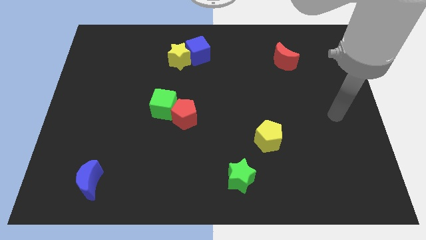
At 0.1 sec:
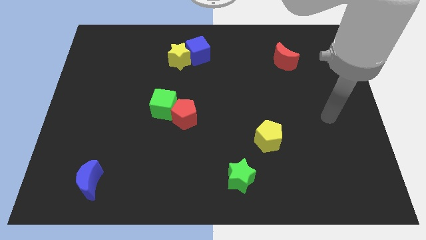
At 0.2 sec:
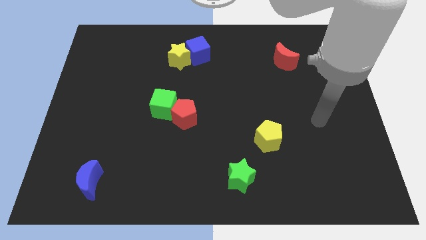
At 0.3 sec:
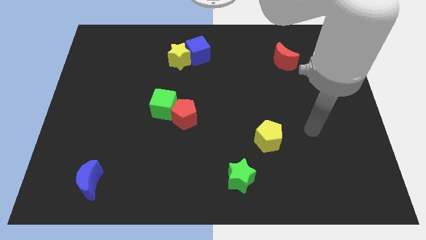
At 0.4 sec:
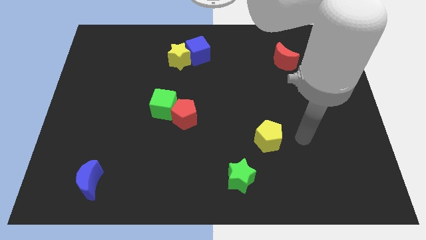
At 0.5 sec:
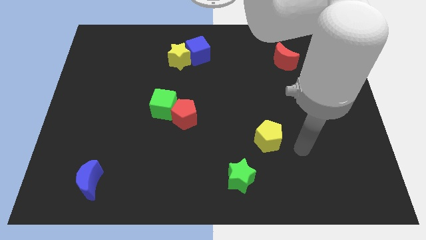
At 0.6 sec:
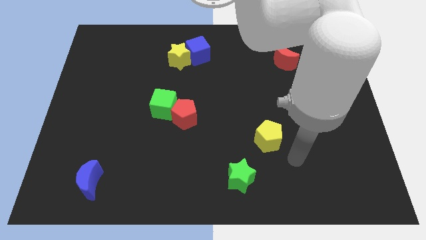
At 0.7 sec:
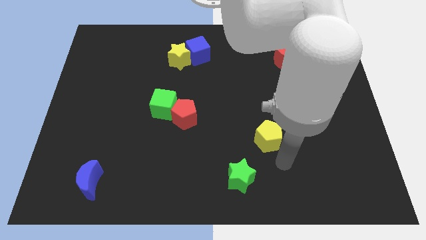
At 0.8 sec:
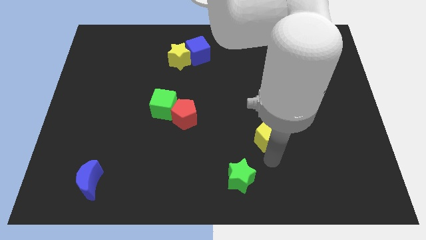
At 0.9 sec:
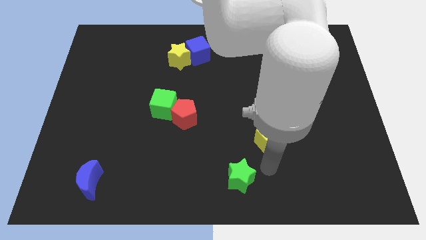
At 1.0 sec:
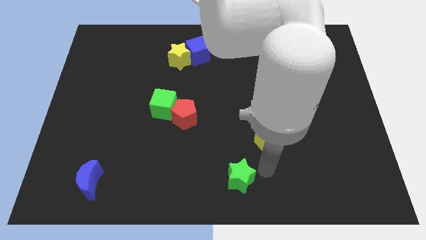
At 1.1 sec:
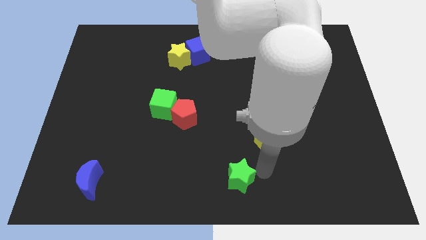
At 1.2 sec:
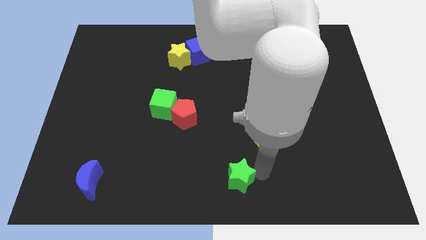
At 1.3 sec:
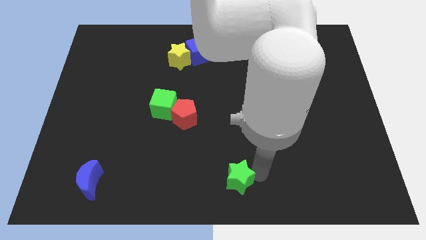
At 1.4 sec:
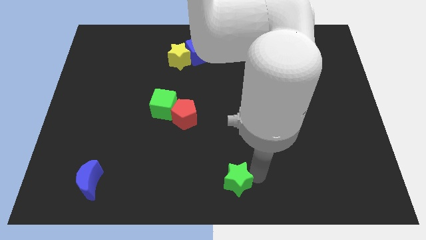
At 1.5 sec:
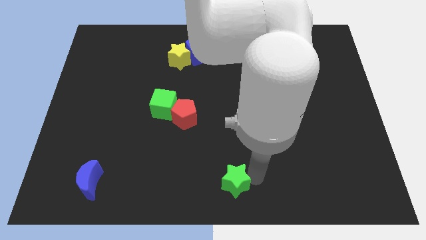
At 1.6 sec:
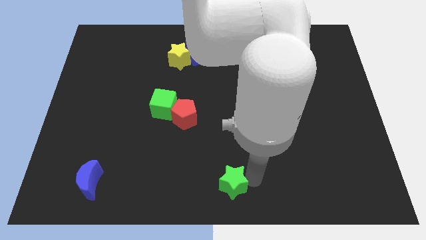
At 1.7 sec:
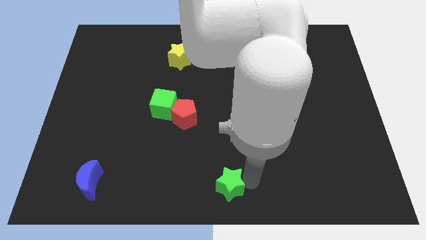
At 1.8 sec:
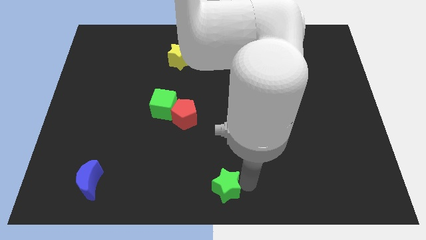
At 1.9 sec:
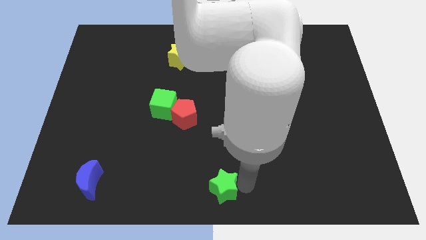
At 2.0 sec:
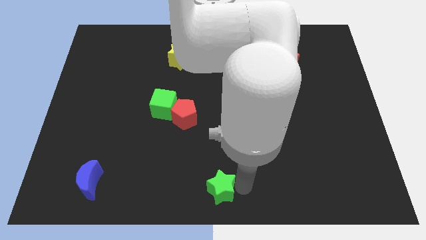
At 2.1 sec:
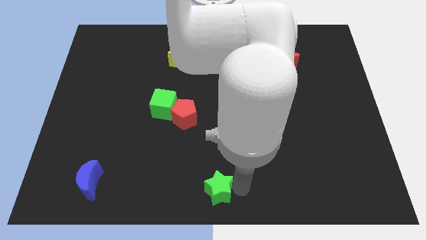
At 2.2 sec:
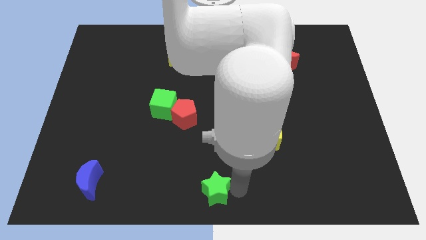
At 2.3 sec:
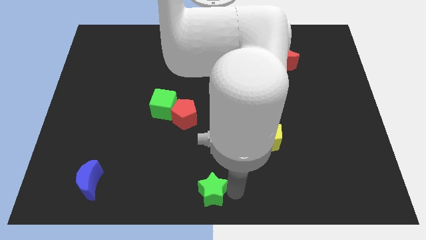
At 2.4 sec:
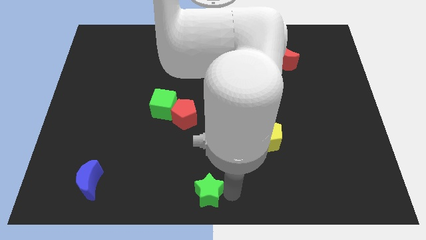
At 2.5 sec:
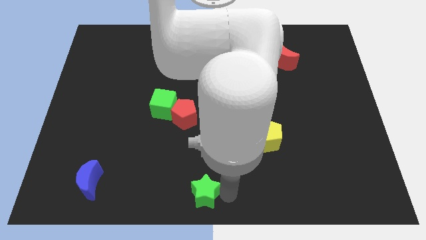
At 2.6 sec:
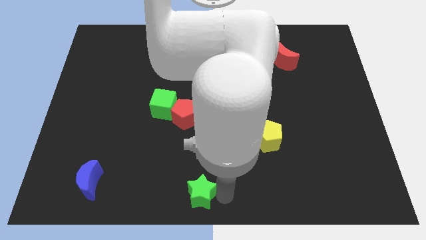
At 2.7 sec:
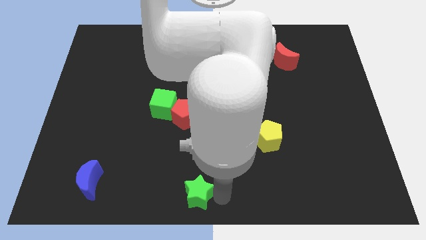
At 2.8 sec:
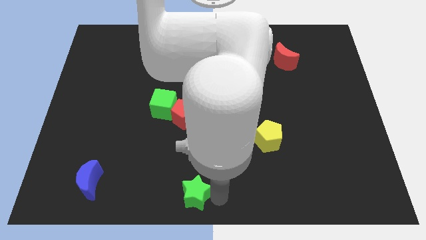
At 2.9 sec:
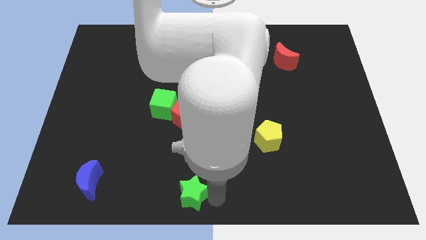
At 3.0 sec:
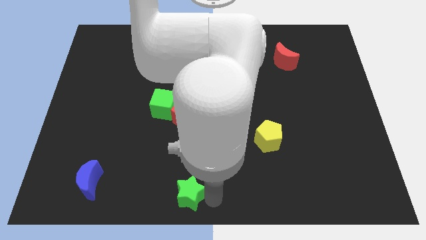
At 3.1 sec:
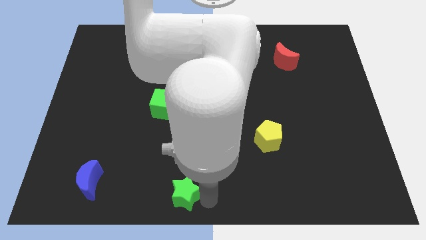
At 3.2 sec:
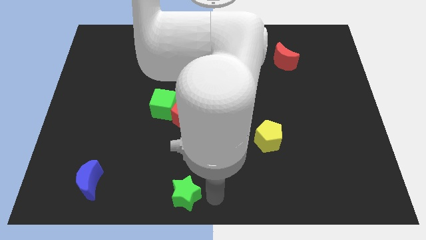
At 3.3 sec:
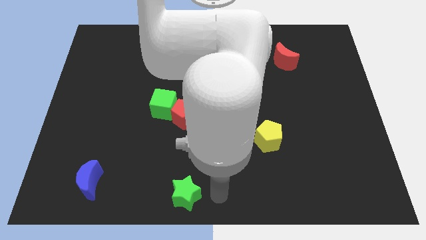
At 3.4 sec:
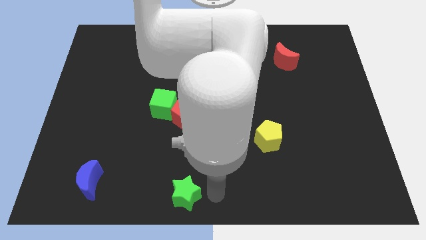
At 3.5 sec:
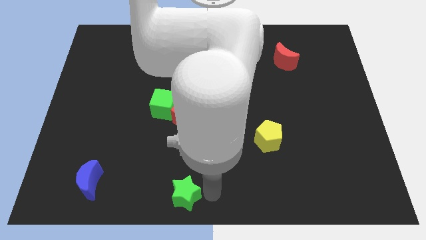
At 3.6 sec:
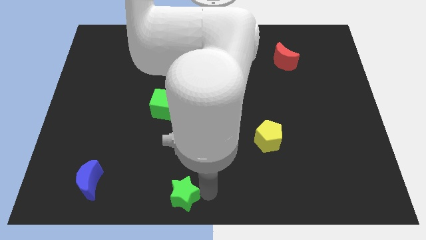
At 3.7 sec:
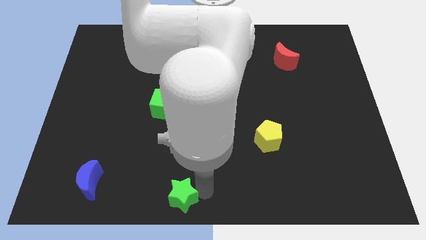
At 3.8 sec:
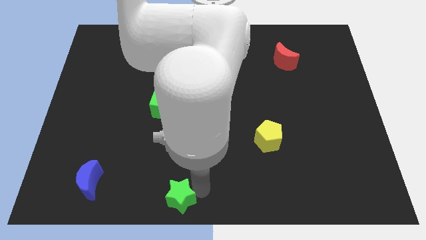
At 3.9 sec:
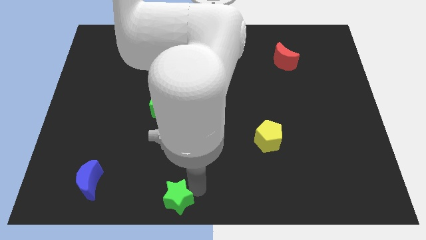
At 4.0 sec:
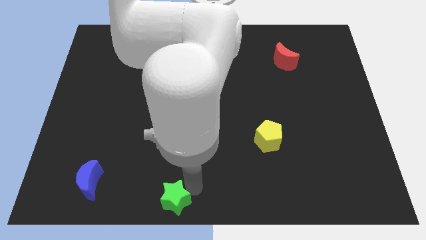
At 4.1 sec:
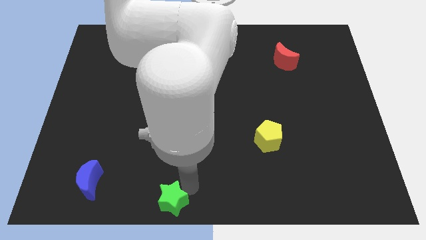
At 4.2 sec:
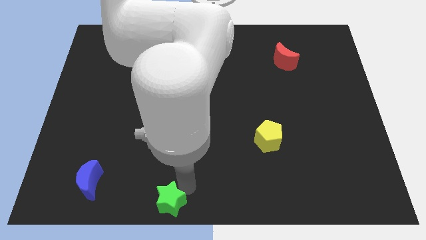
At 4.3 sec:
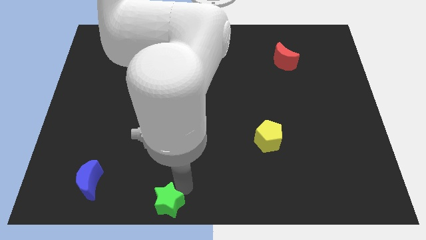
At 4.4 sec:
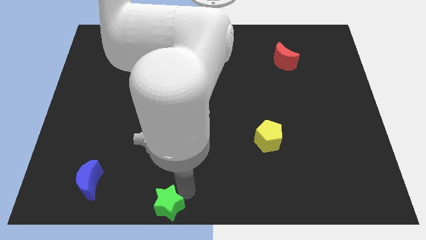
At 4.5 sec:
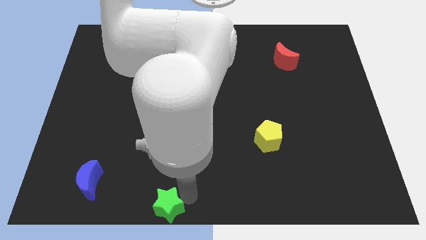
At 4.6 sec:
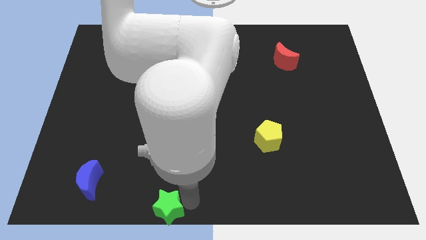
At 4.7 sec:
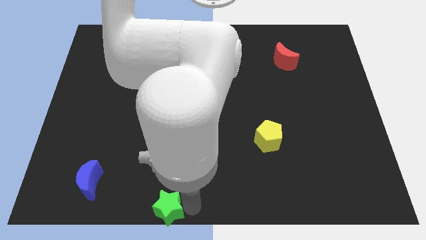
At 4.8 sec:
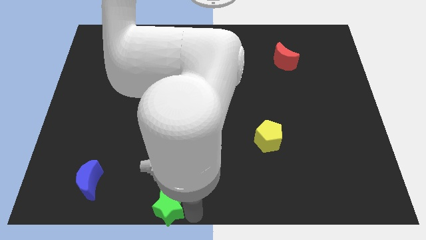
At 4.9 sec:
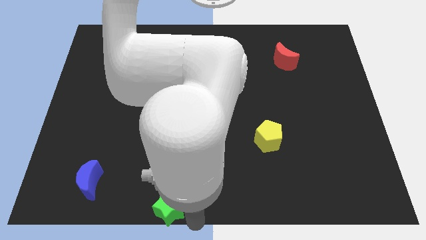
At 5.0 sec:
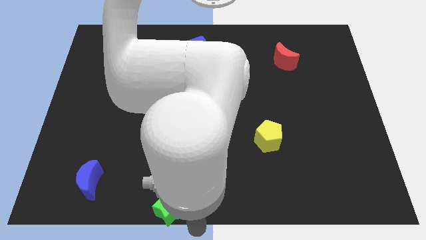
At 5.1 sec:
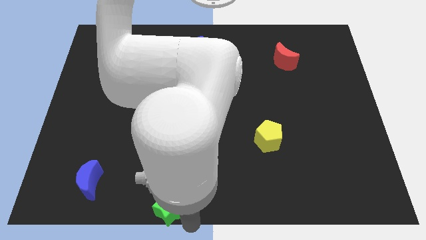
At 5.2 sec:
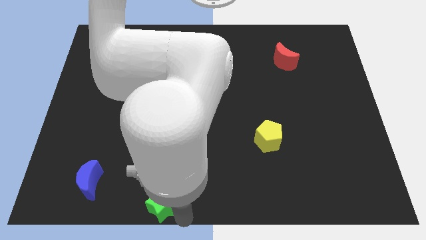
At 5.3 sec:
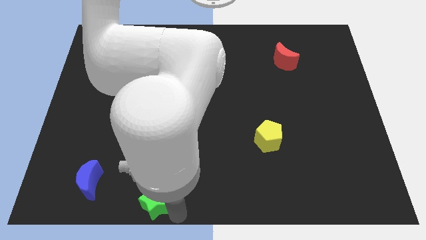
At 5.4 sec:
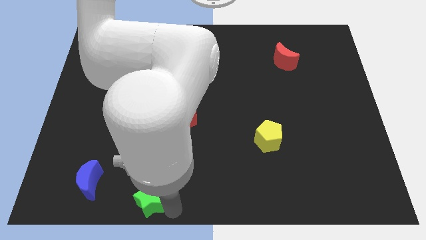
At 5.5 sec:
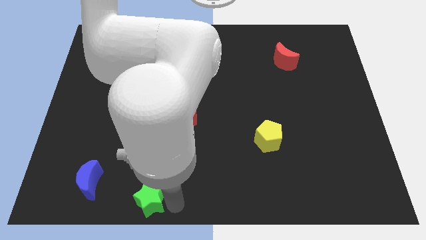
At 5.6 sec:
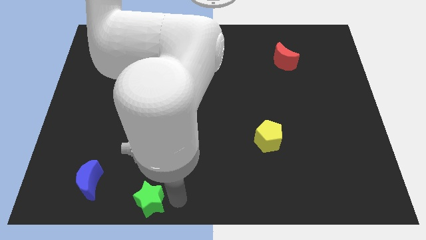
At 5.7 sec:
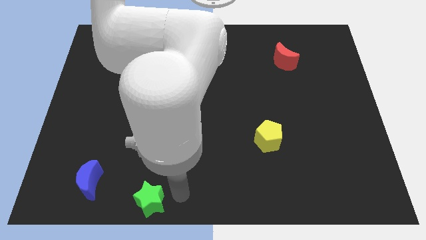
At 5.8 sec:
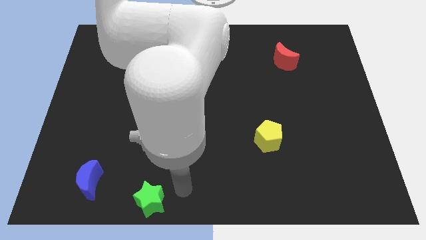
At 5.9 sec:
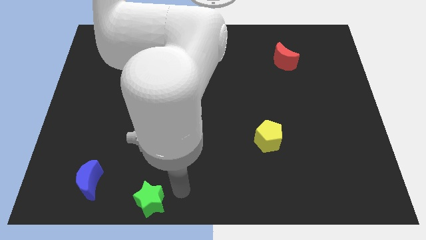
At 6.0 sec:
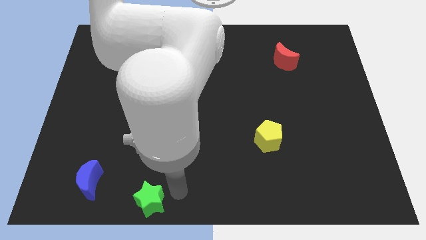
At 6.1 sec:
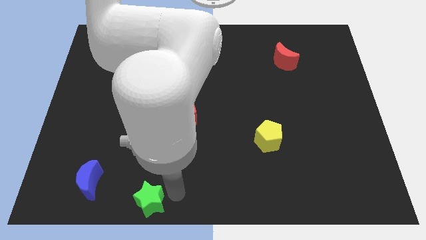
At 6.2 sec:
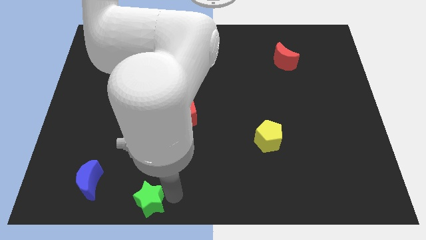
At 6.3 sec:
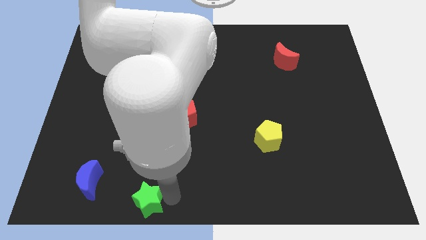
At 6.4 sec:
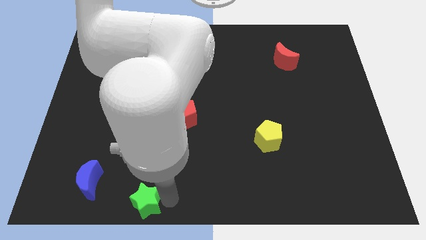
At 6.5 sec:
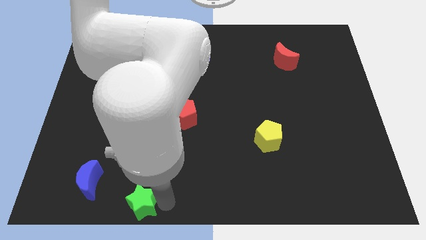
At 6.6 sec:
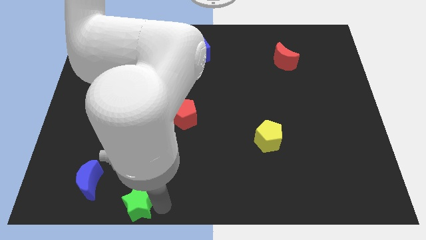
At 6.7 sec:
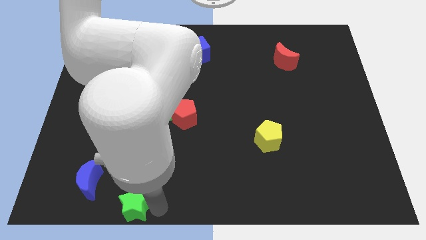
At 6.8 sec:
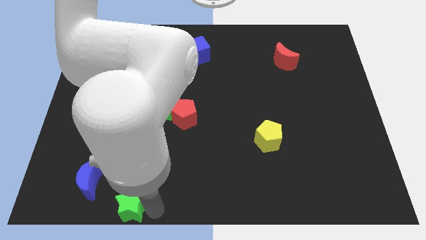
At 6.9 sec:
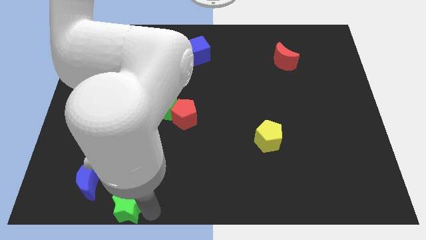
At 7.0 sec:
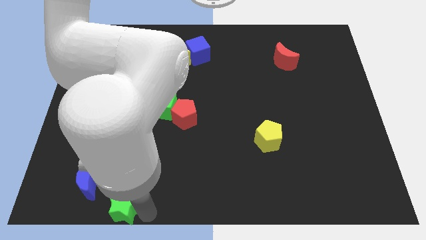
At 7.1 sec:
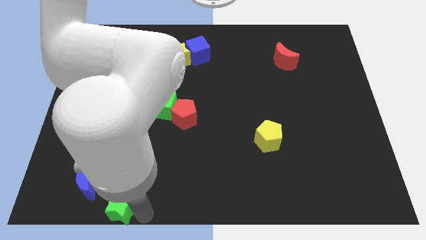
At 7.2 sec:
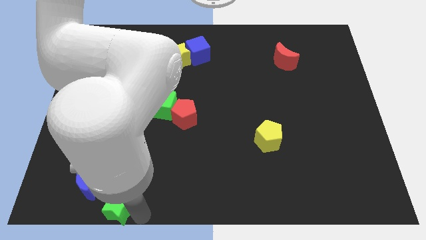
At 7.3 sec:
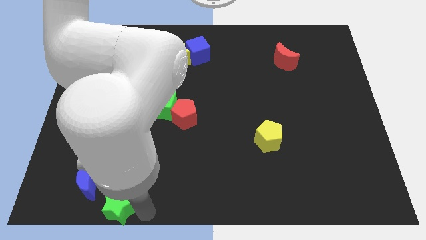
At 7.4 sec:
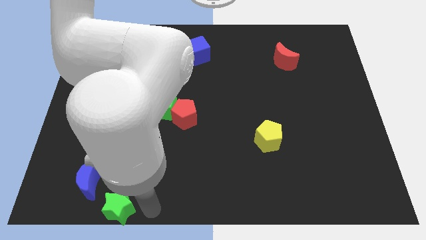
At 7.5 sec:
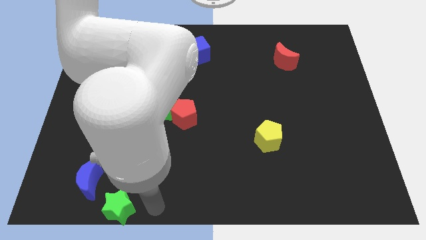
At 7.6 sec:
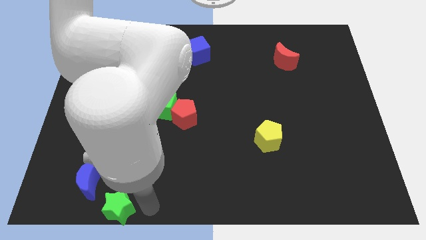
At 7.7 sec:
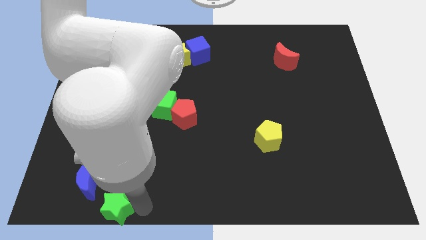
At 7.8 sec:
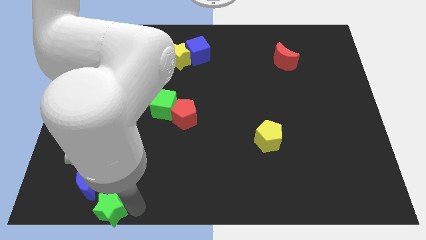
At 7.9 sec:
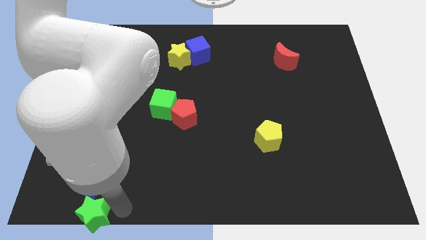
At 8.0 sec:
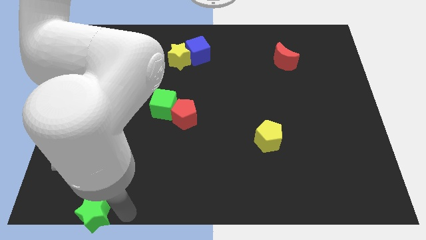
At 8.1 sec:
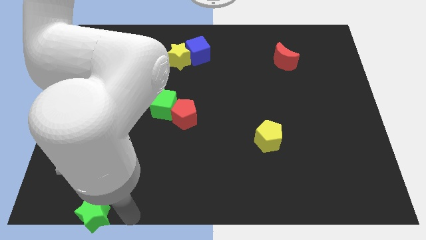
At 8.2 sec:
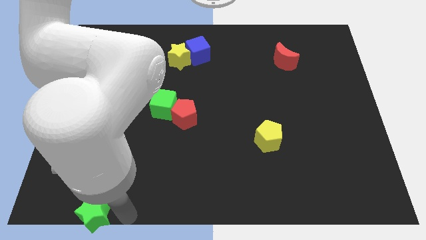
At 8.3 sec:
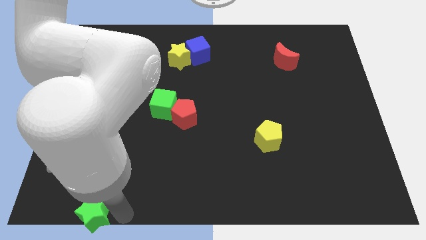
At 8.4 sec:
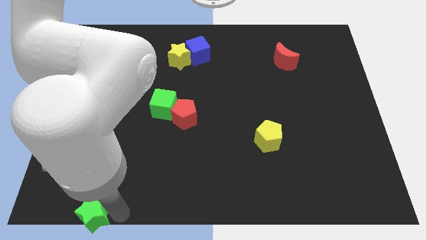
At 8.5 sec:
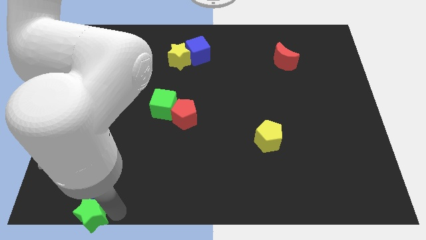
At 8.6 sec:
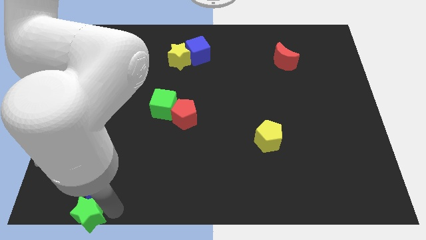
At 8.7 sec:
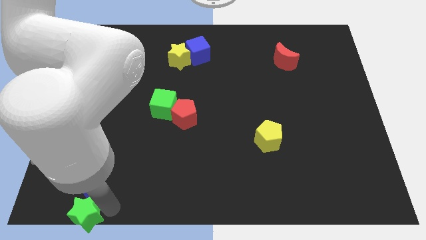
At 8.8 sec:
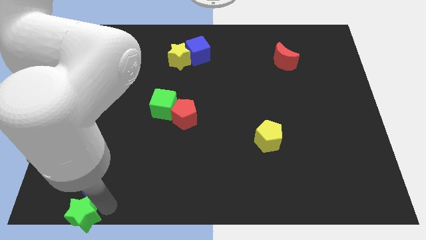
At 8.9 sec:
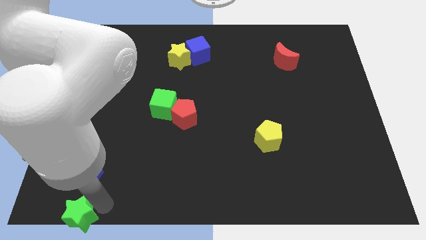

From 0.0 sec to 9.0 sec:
put the green star to the bottom left corner
